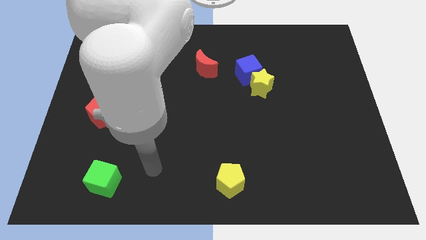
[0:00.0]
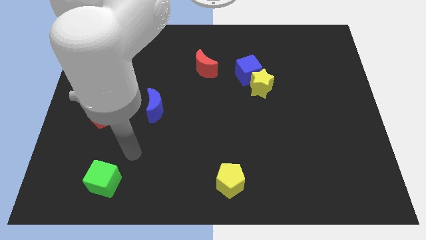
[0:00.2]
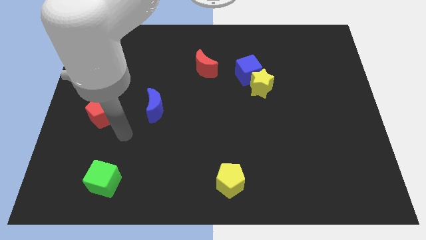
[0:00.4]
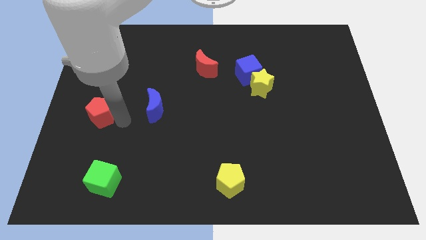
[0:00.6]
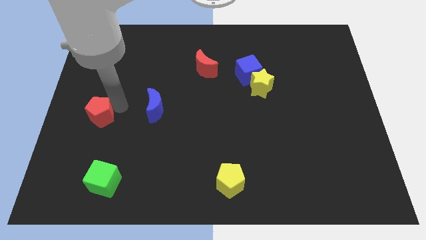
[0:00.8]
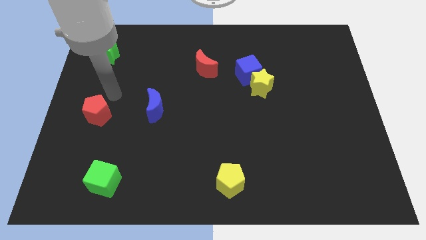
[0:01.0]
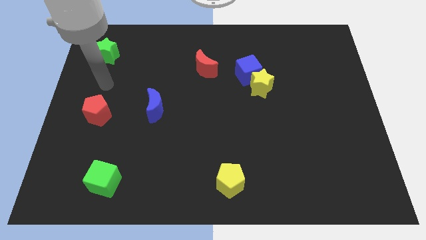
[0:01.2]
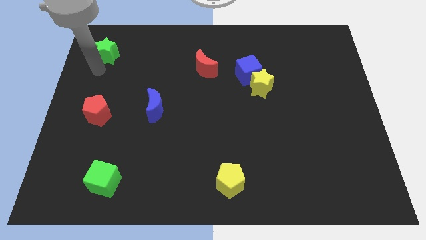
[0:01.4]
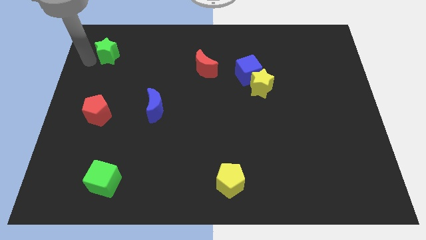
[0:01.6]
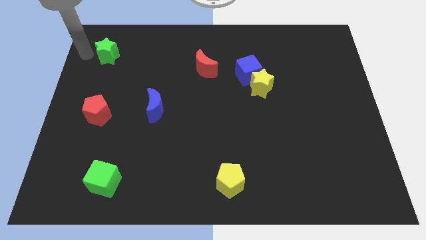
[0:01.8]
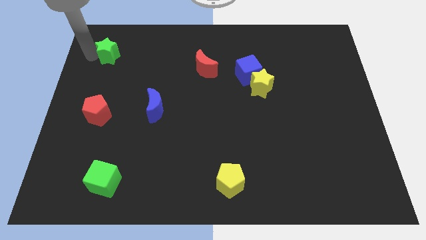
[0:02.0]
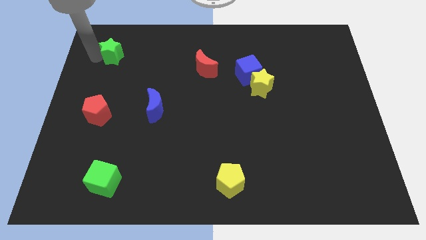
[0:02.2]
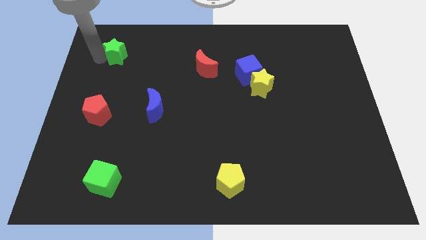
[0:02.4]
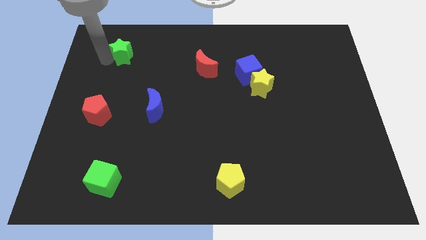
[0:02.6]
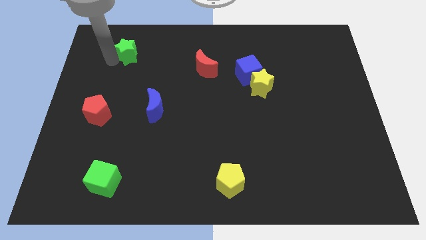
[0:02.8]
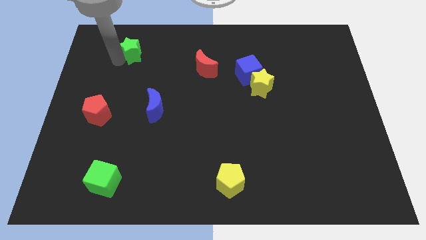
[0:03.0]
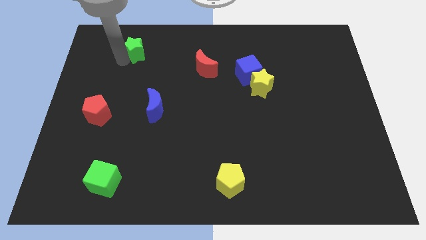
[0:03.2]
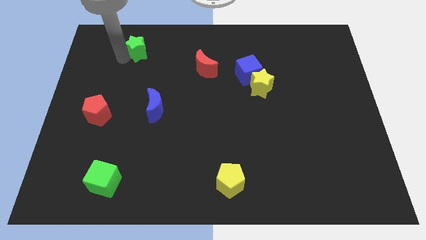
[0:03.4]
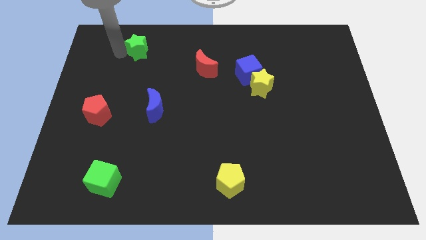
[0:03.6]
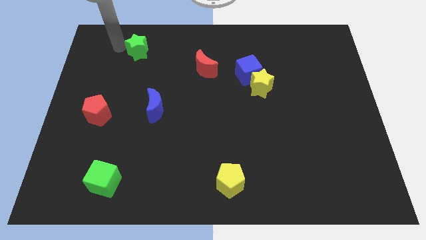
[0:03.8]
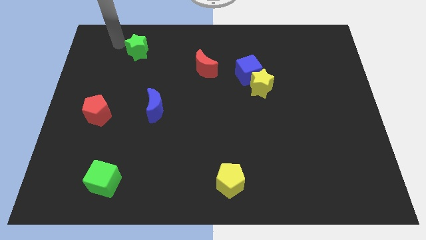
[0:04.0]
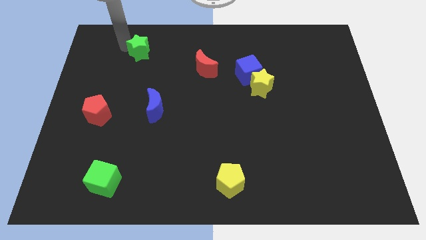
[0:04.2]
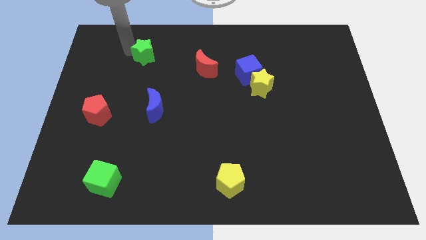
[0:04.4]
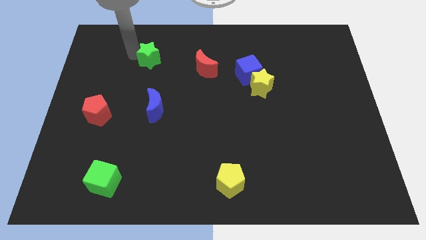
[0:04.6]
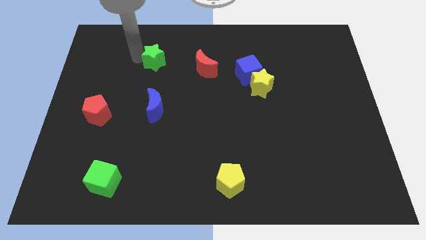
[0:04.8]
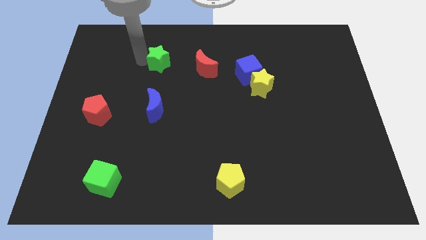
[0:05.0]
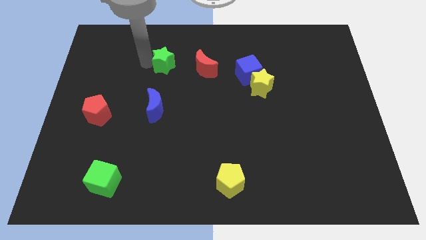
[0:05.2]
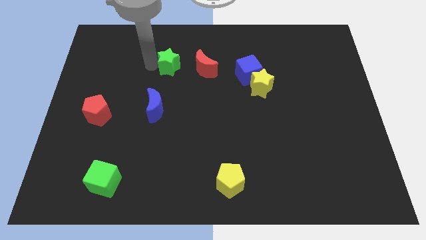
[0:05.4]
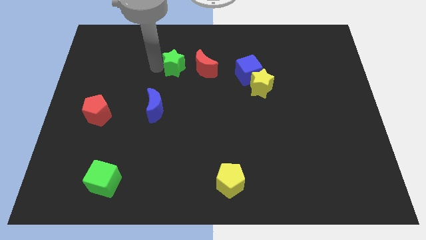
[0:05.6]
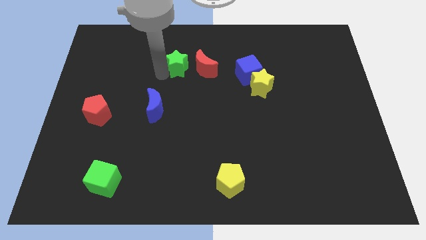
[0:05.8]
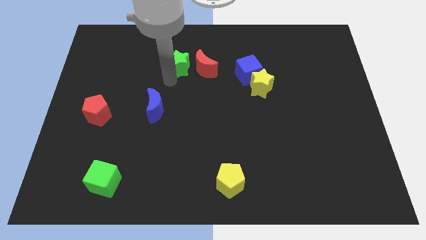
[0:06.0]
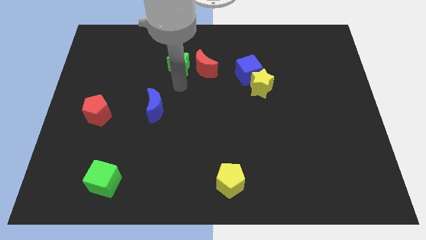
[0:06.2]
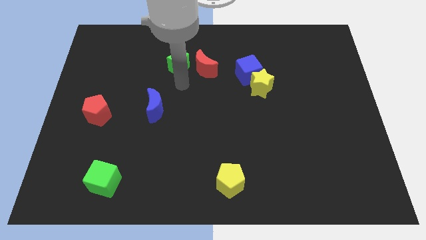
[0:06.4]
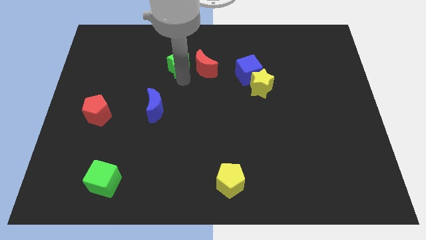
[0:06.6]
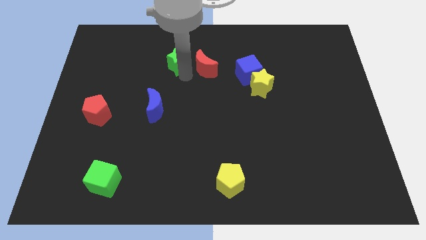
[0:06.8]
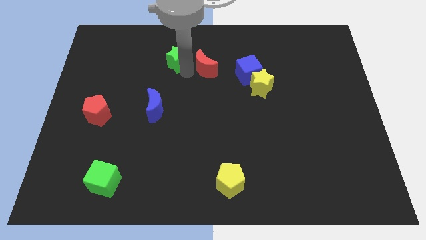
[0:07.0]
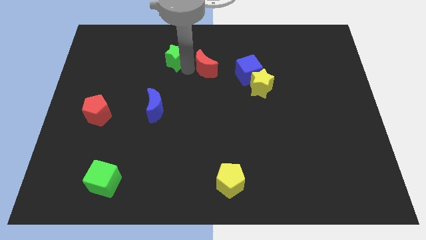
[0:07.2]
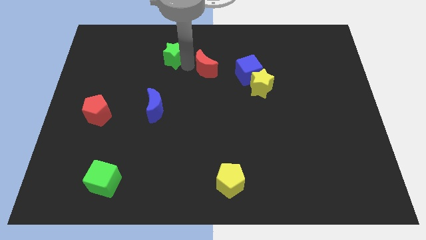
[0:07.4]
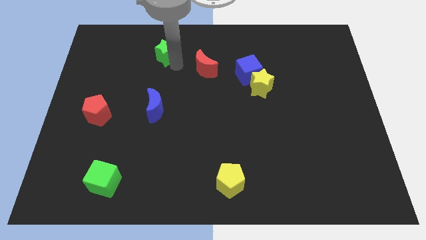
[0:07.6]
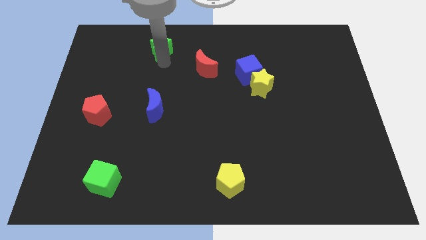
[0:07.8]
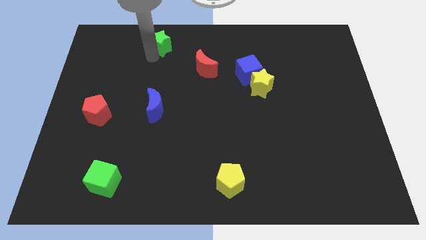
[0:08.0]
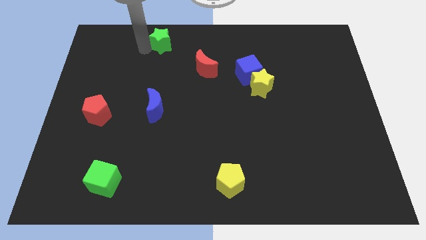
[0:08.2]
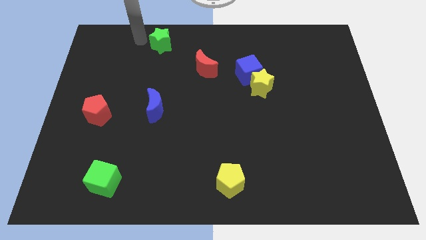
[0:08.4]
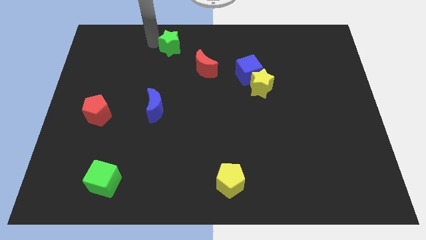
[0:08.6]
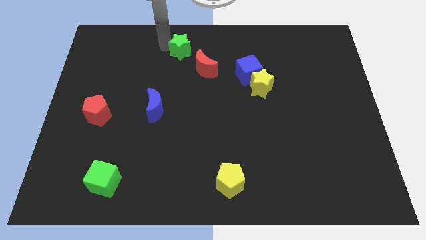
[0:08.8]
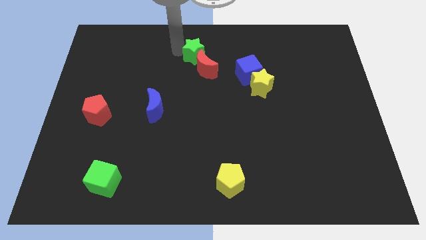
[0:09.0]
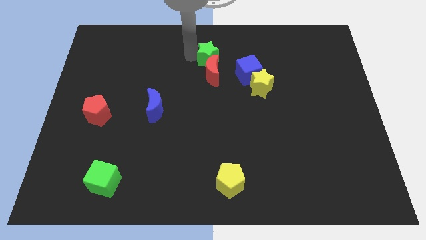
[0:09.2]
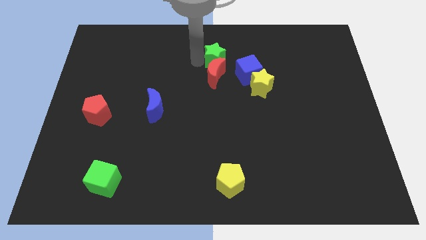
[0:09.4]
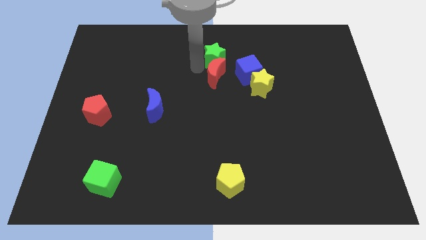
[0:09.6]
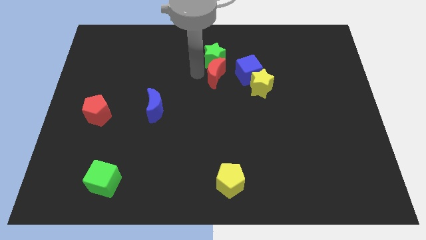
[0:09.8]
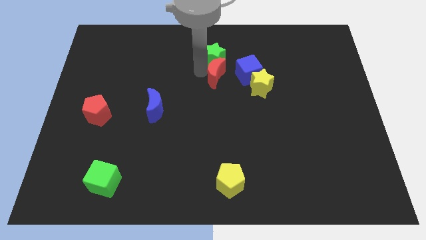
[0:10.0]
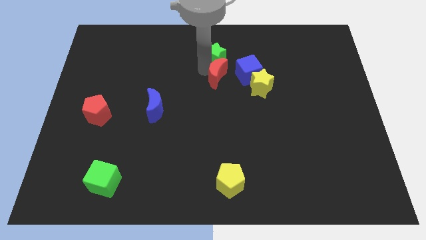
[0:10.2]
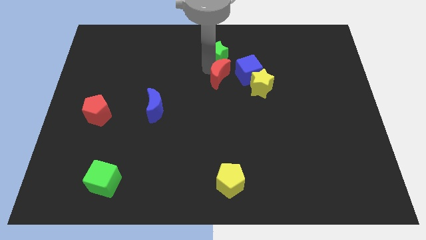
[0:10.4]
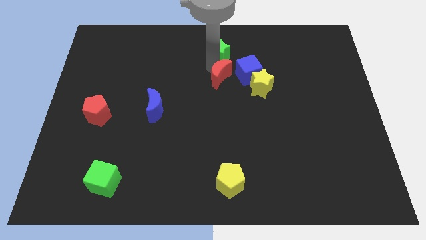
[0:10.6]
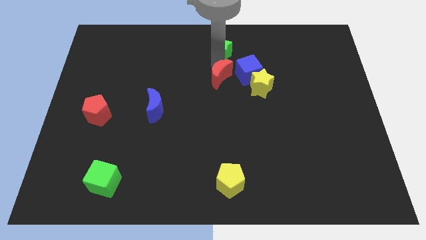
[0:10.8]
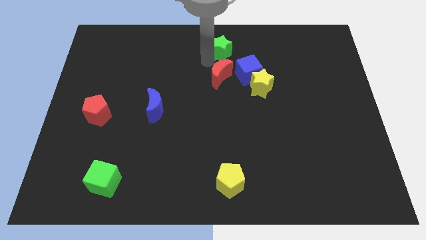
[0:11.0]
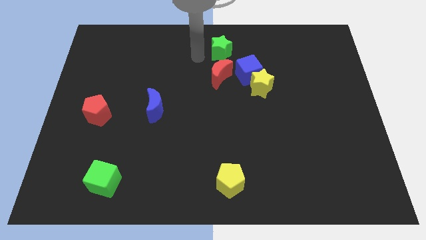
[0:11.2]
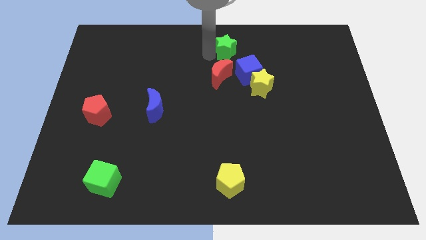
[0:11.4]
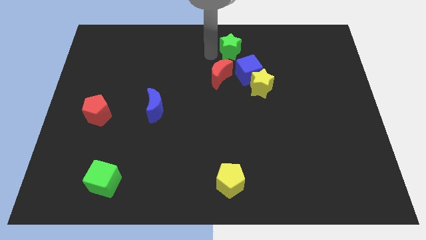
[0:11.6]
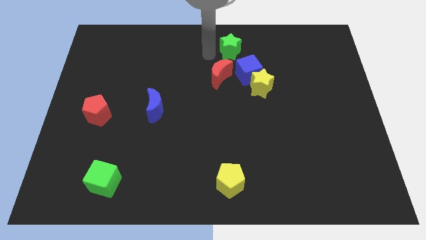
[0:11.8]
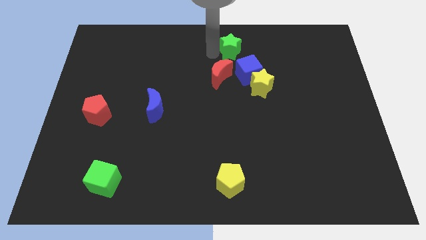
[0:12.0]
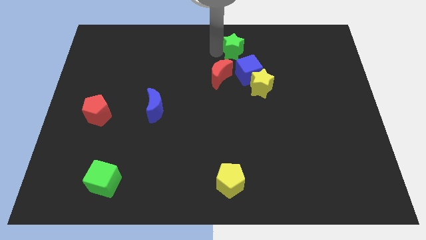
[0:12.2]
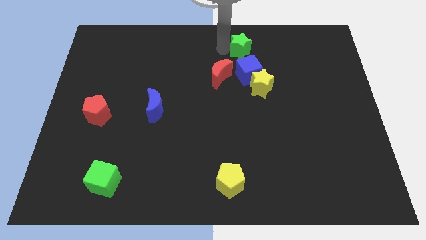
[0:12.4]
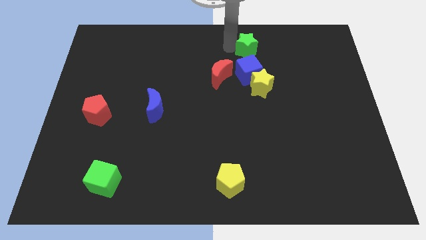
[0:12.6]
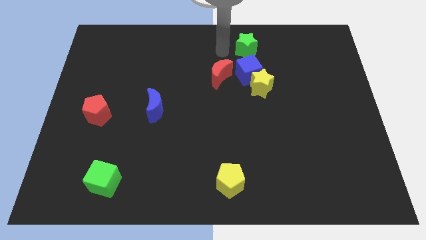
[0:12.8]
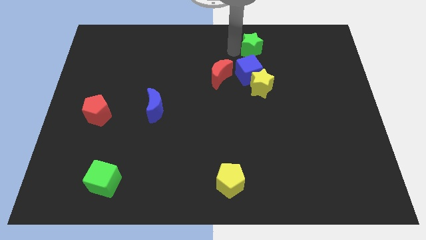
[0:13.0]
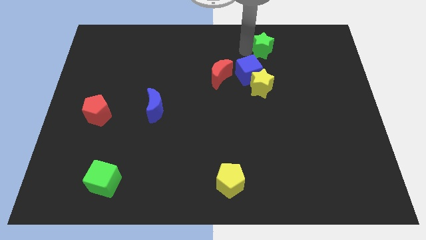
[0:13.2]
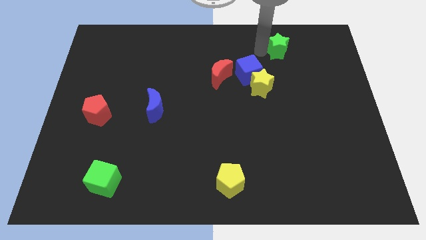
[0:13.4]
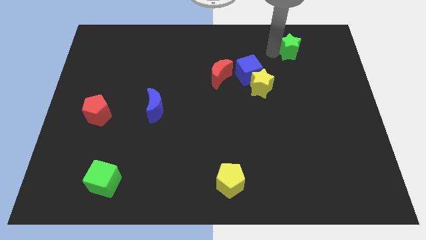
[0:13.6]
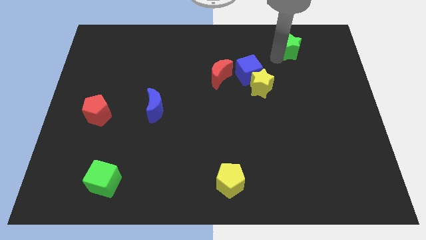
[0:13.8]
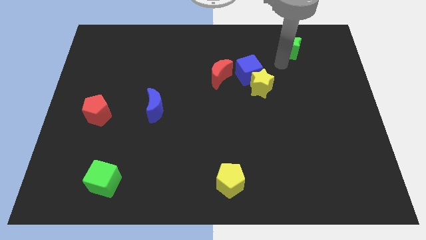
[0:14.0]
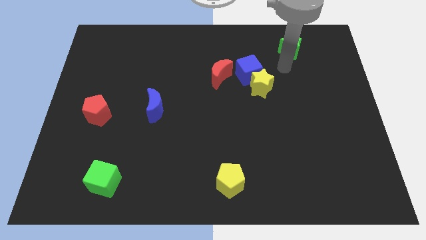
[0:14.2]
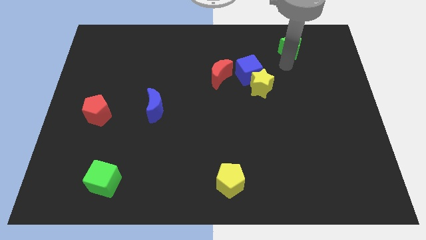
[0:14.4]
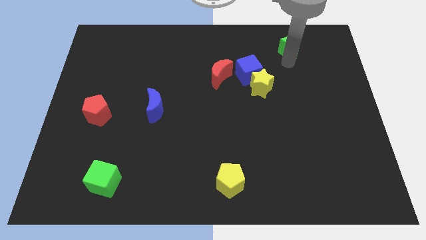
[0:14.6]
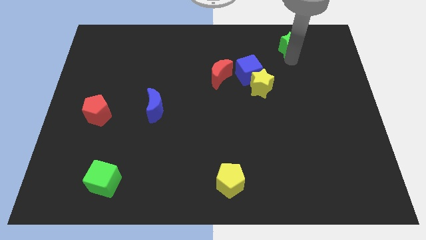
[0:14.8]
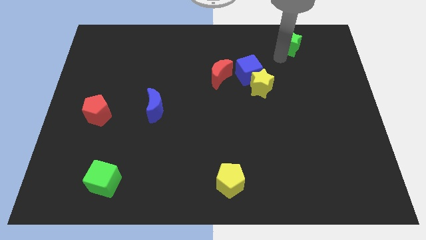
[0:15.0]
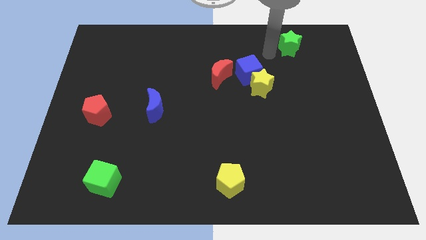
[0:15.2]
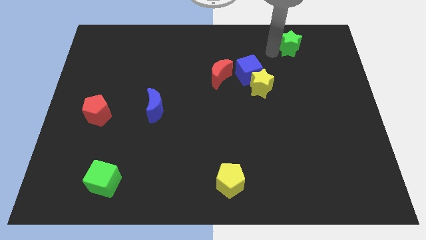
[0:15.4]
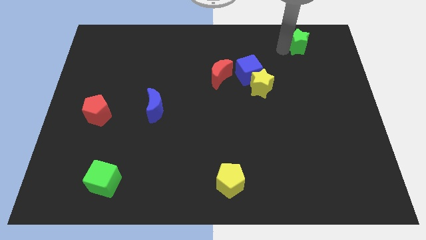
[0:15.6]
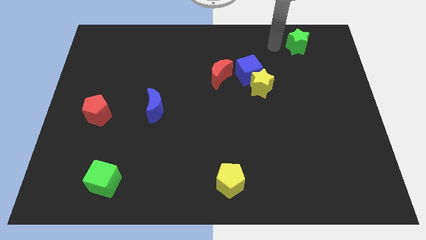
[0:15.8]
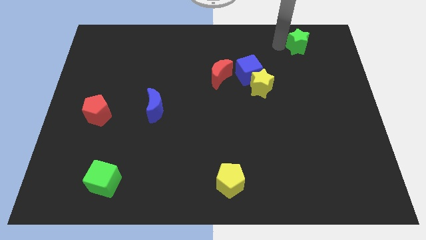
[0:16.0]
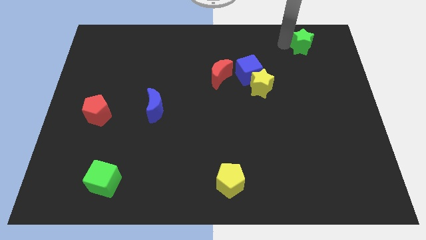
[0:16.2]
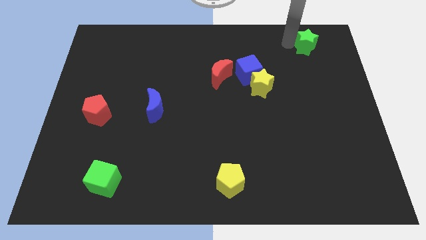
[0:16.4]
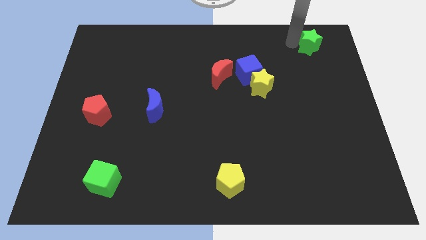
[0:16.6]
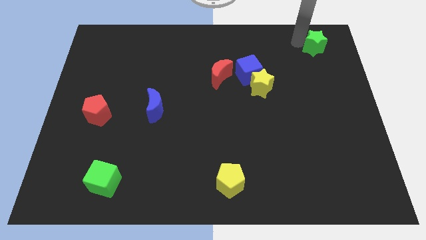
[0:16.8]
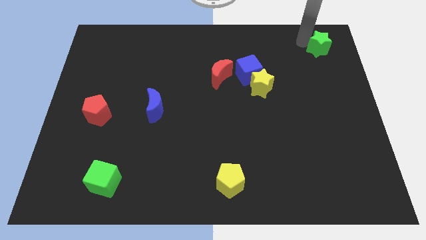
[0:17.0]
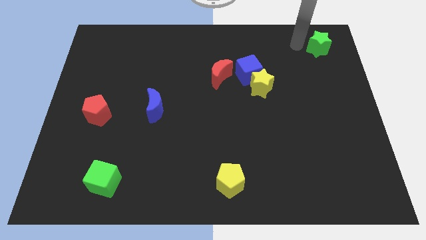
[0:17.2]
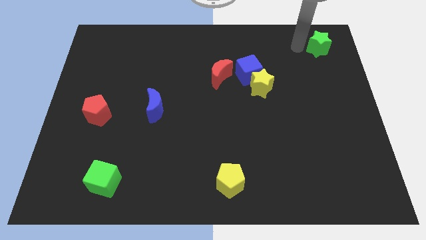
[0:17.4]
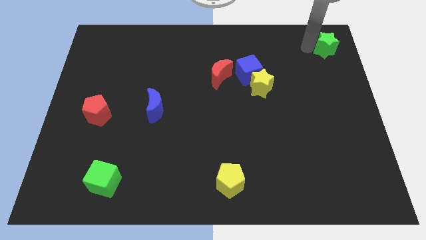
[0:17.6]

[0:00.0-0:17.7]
put the green star to the top right
